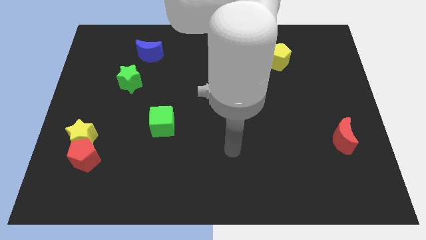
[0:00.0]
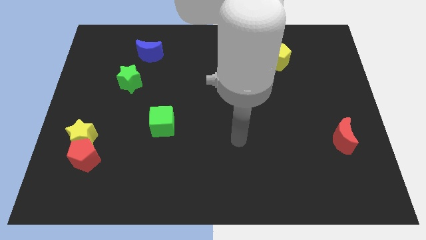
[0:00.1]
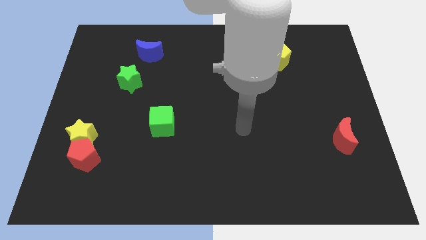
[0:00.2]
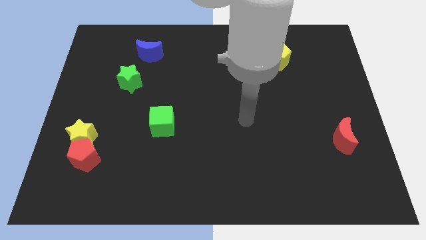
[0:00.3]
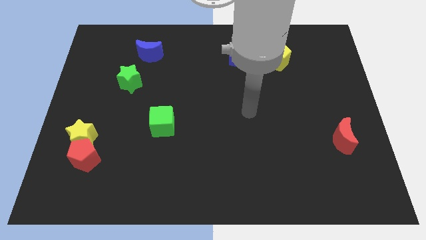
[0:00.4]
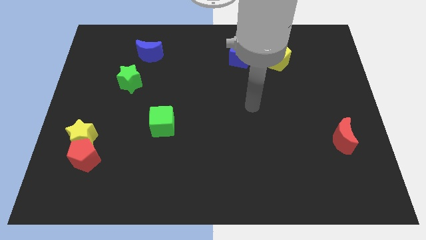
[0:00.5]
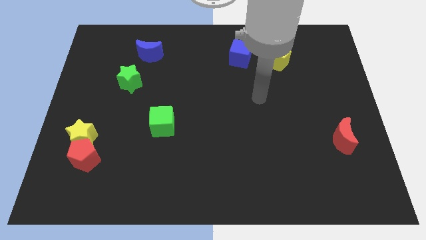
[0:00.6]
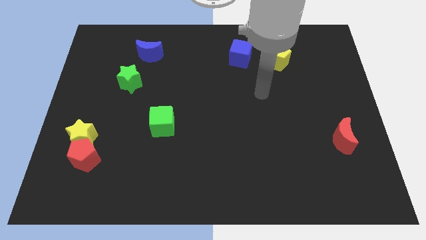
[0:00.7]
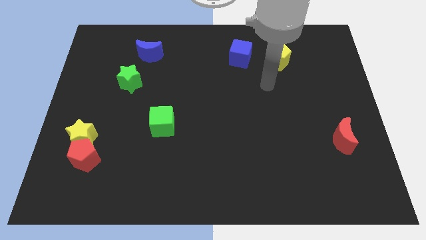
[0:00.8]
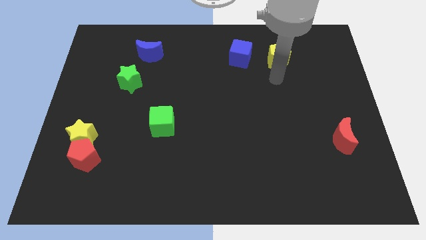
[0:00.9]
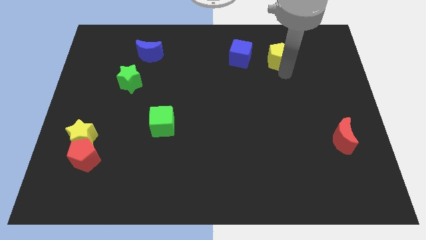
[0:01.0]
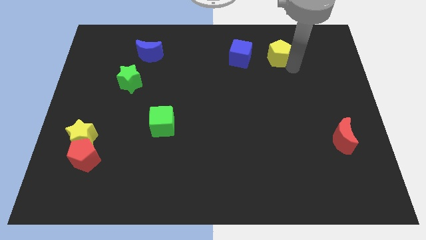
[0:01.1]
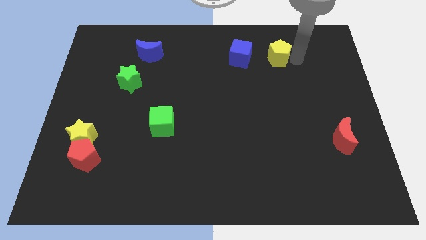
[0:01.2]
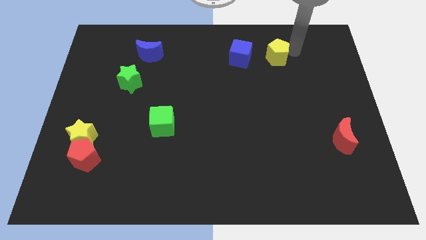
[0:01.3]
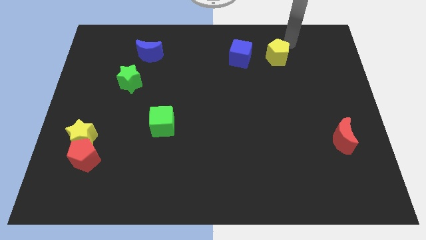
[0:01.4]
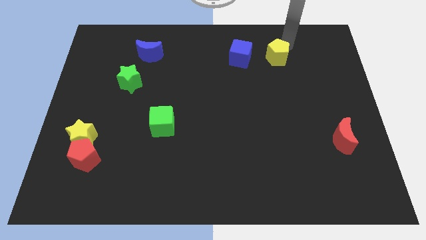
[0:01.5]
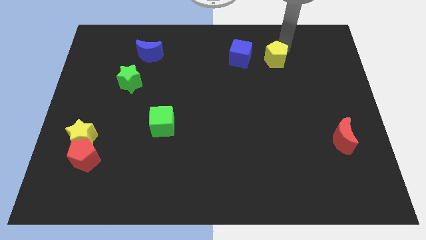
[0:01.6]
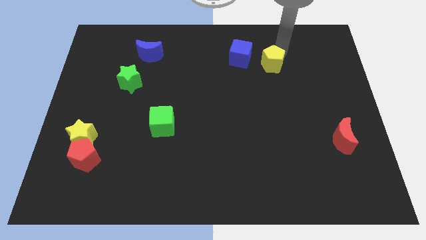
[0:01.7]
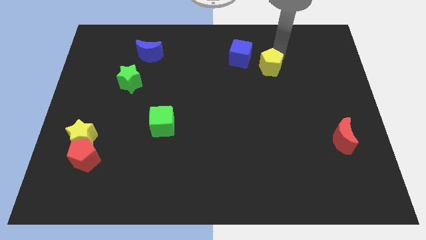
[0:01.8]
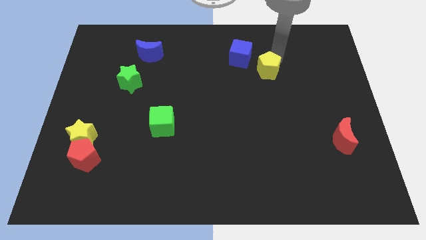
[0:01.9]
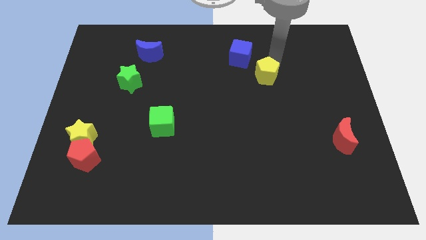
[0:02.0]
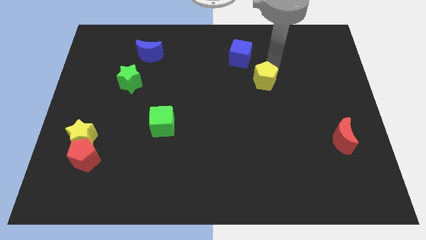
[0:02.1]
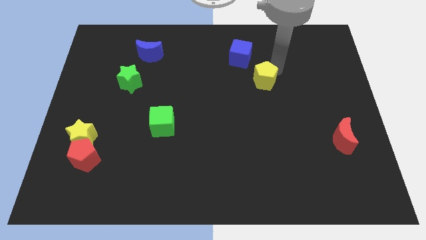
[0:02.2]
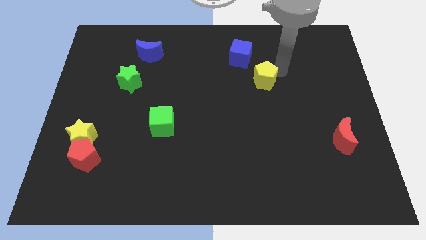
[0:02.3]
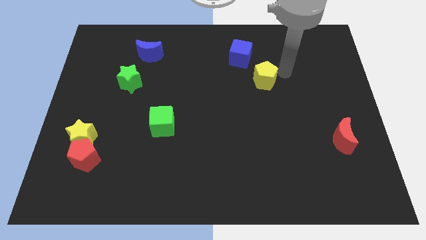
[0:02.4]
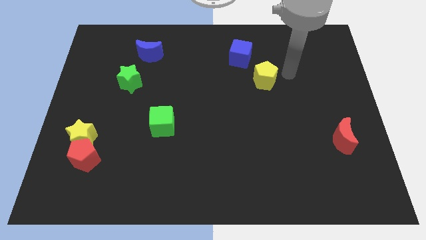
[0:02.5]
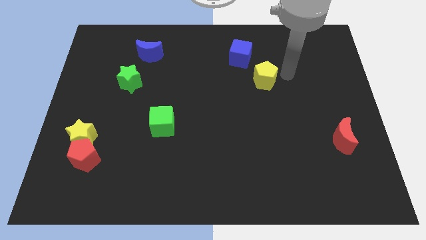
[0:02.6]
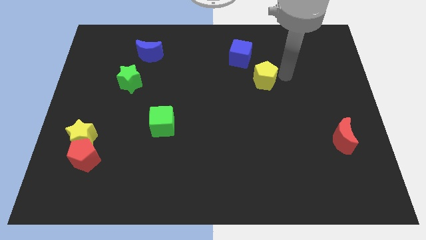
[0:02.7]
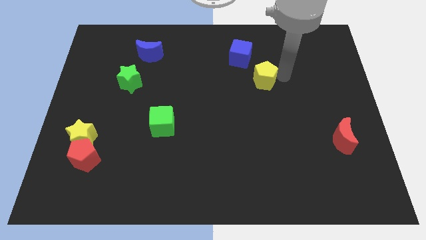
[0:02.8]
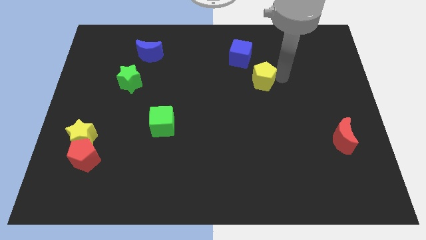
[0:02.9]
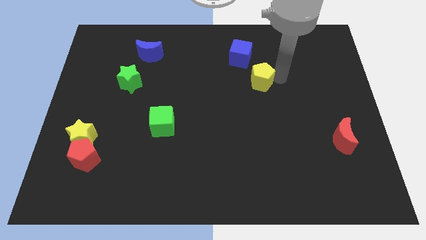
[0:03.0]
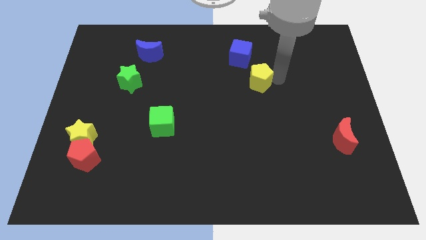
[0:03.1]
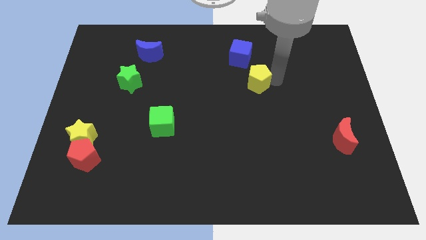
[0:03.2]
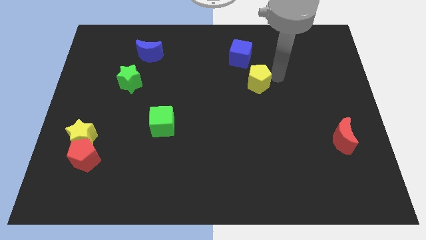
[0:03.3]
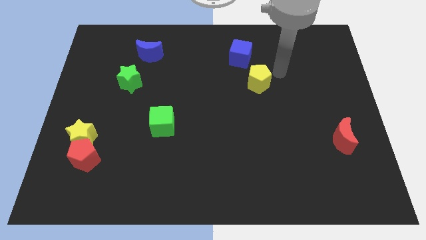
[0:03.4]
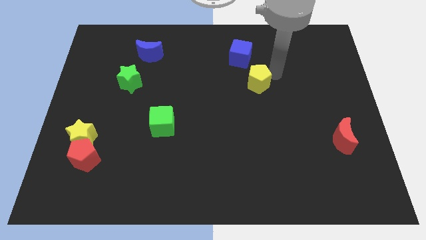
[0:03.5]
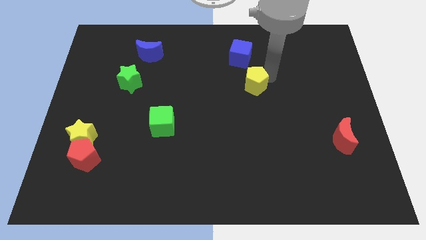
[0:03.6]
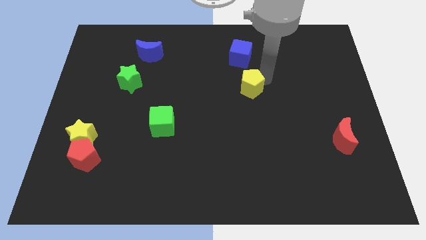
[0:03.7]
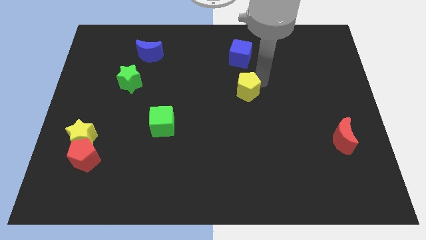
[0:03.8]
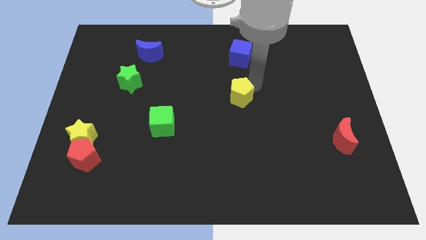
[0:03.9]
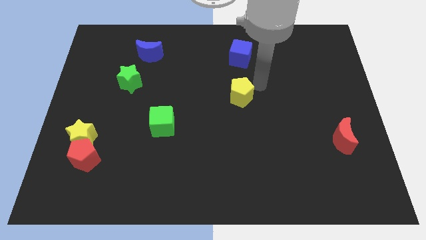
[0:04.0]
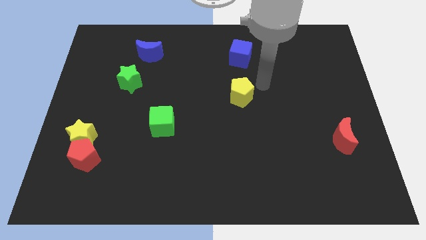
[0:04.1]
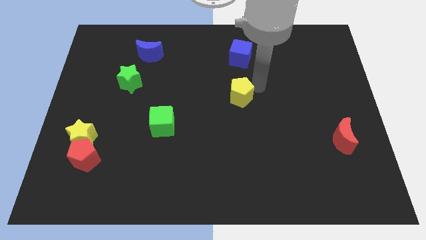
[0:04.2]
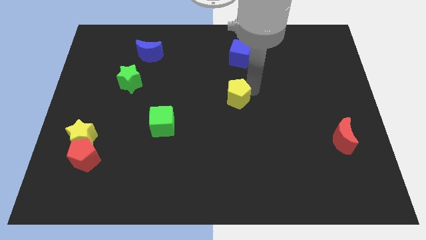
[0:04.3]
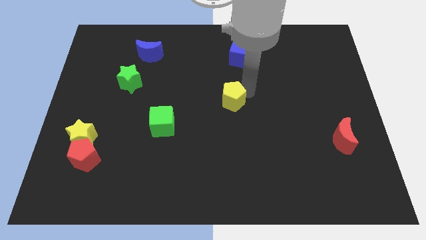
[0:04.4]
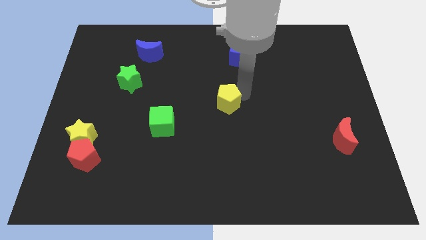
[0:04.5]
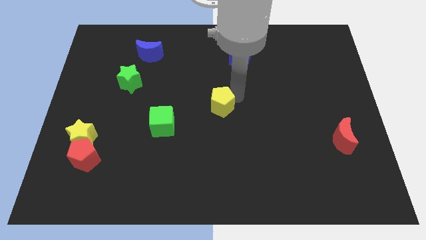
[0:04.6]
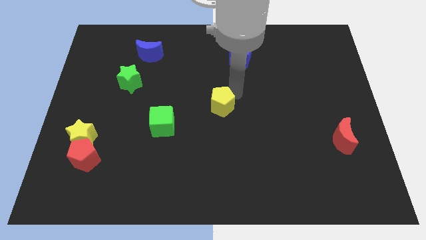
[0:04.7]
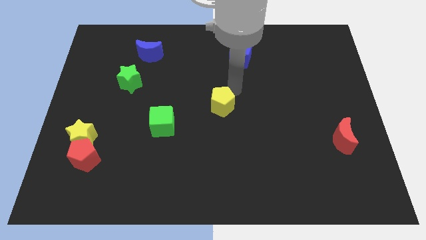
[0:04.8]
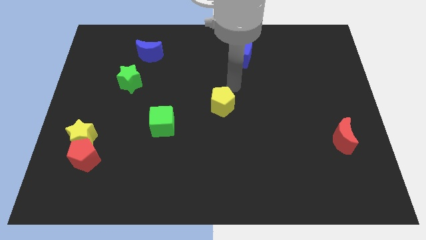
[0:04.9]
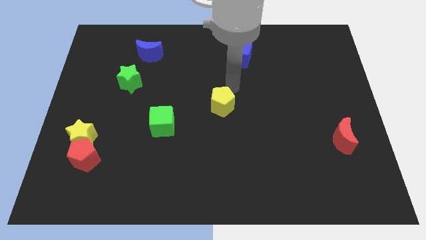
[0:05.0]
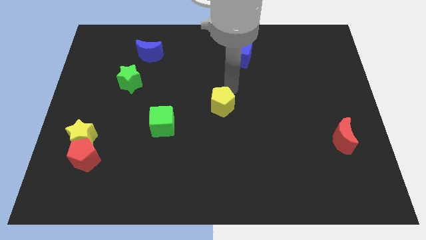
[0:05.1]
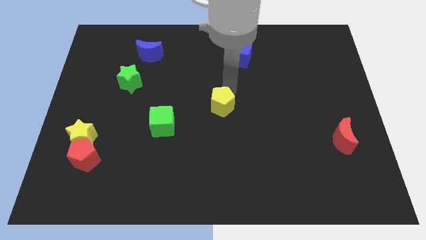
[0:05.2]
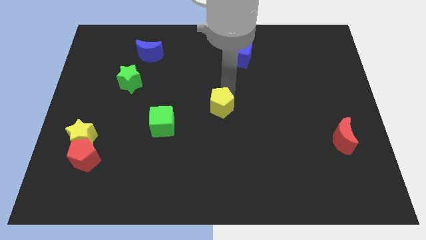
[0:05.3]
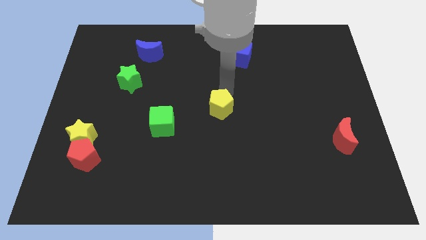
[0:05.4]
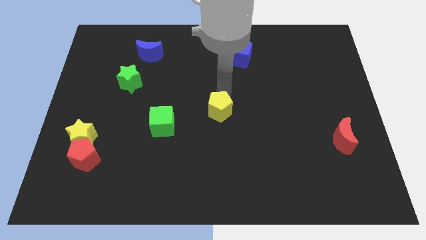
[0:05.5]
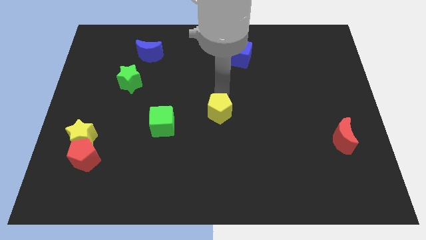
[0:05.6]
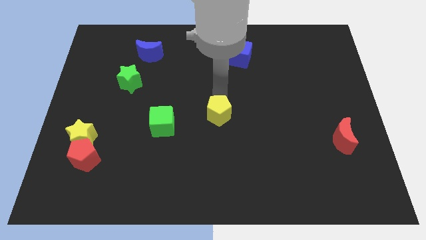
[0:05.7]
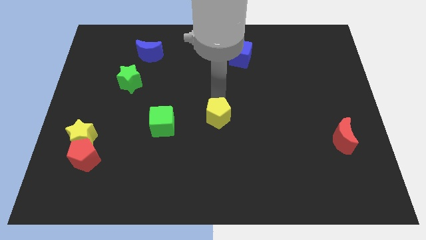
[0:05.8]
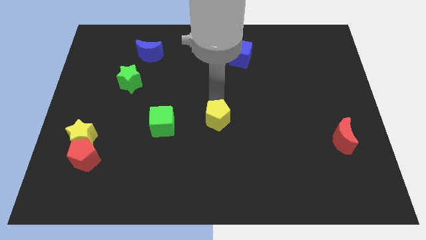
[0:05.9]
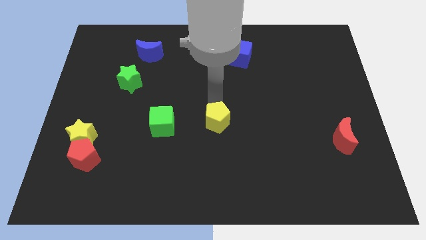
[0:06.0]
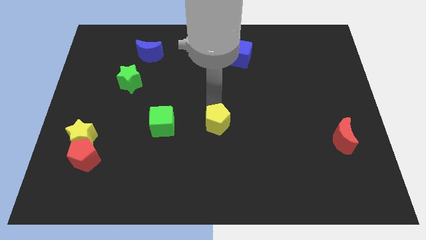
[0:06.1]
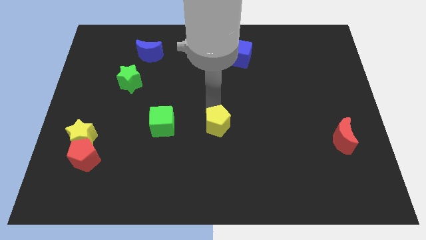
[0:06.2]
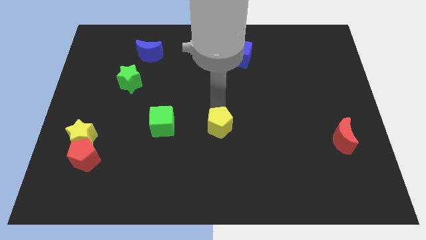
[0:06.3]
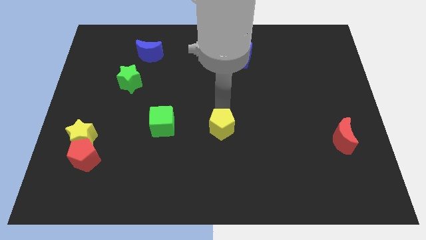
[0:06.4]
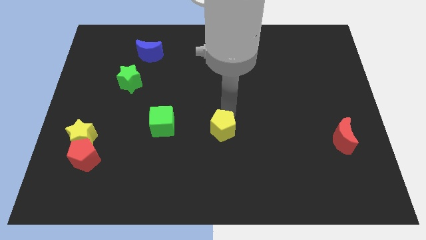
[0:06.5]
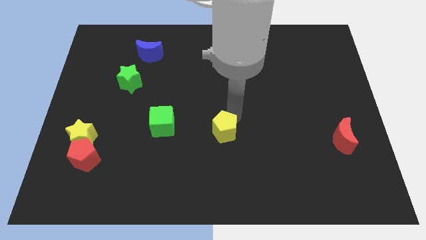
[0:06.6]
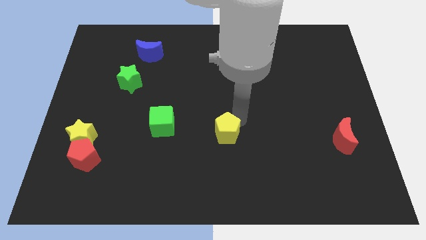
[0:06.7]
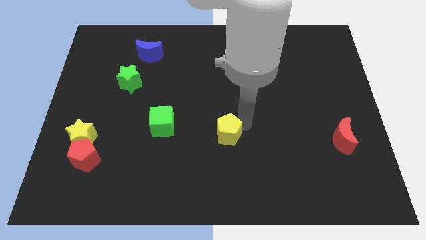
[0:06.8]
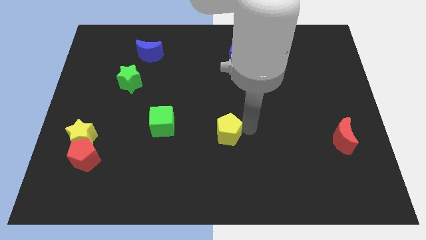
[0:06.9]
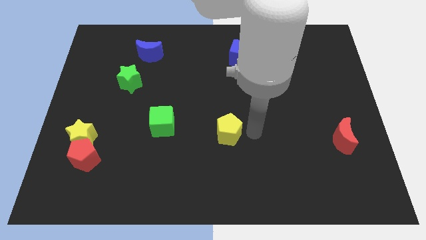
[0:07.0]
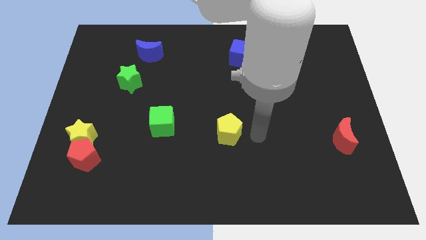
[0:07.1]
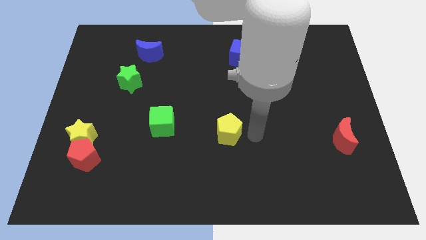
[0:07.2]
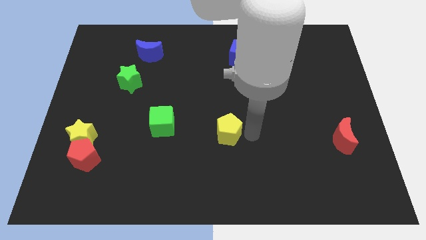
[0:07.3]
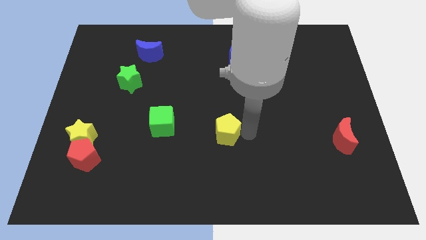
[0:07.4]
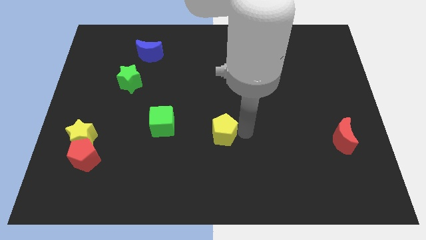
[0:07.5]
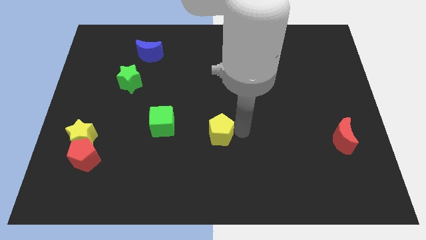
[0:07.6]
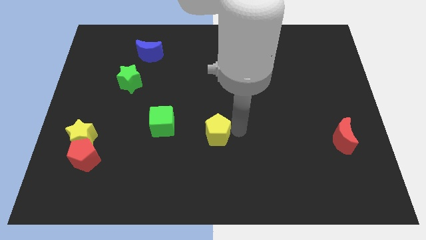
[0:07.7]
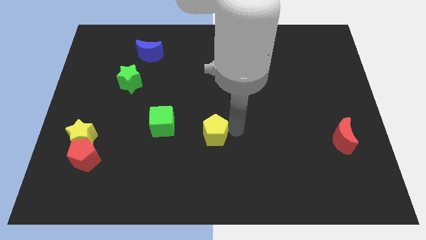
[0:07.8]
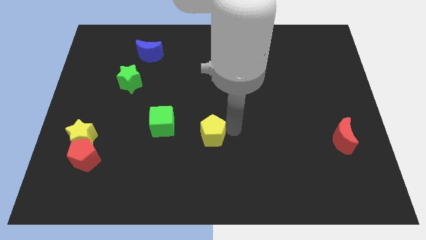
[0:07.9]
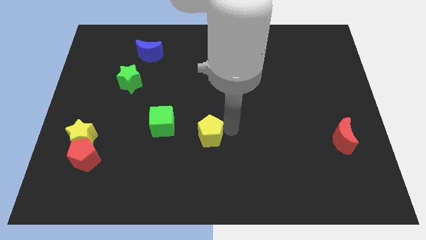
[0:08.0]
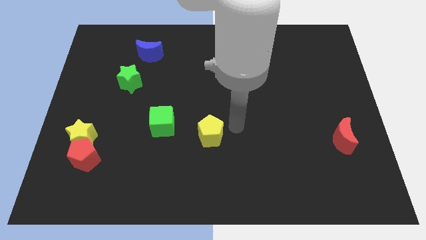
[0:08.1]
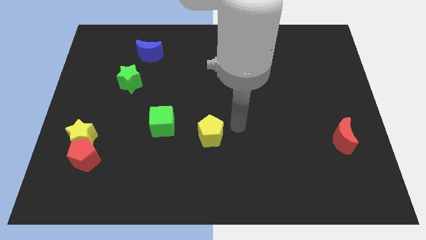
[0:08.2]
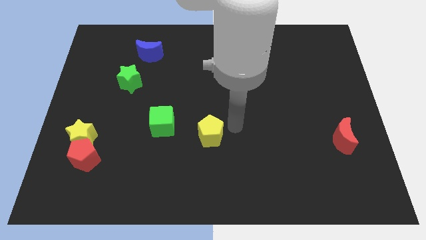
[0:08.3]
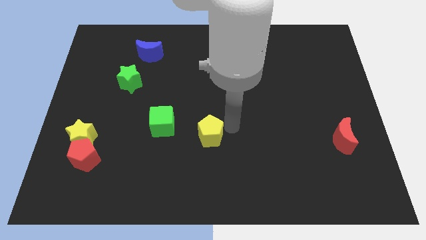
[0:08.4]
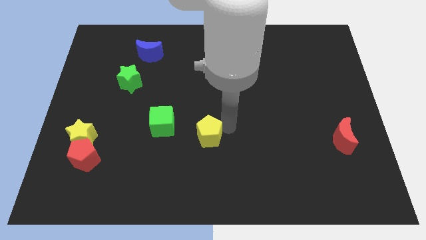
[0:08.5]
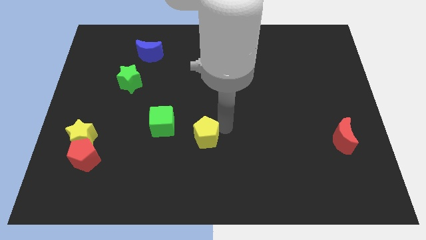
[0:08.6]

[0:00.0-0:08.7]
put the yellow pentagon to the bottom right of the green cube
